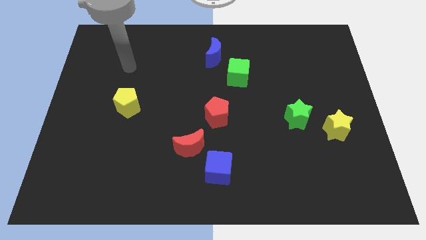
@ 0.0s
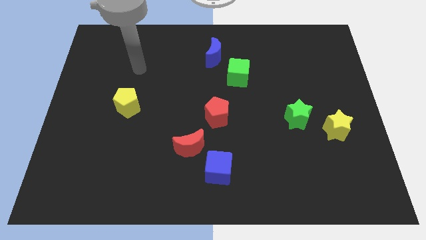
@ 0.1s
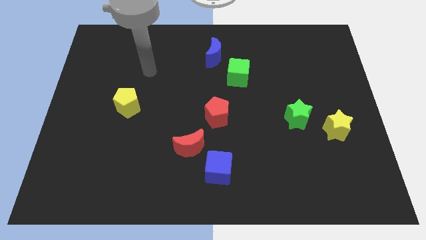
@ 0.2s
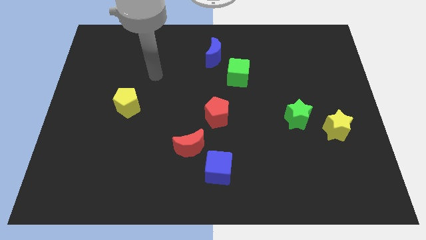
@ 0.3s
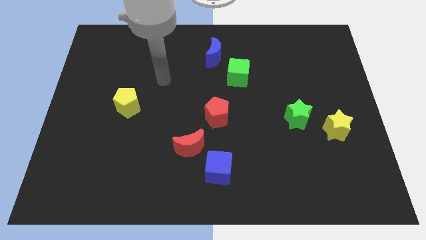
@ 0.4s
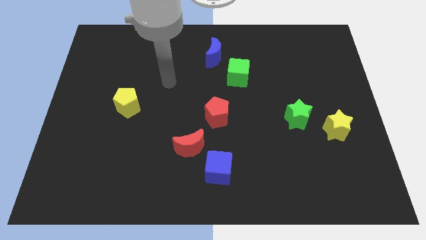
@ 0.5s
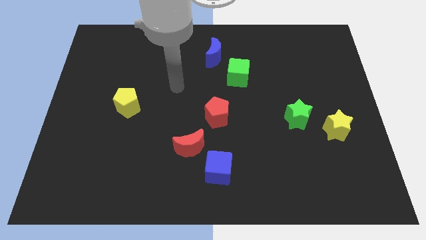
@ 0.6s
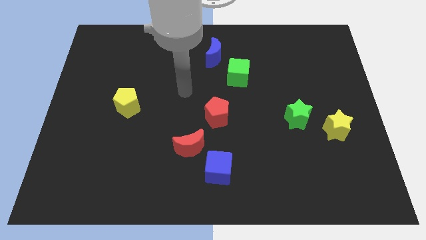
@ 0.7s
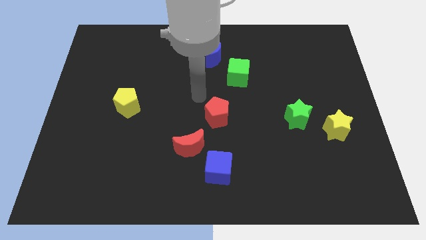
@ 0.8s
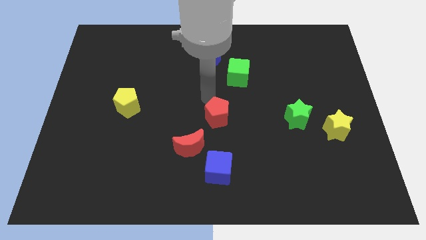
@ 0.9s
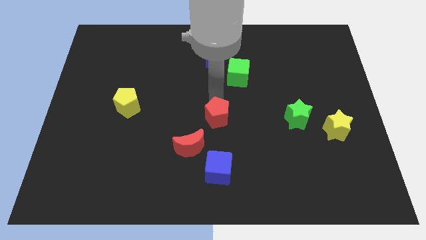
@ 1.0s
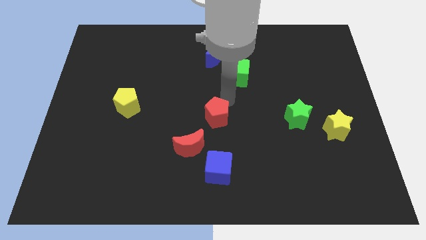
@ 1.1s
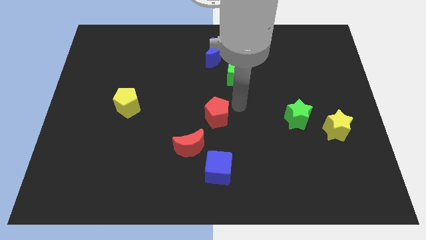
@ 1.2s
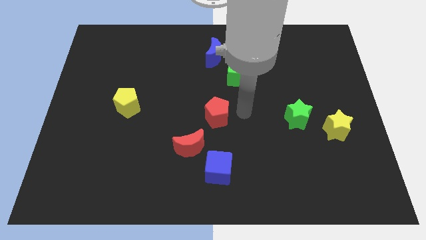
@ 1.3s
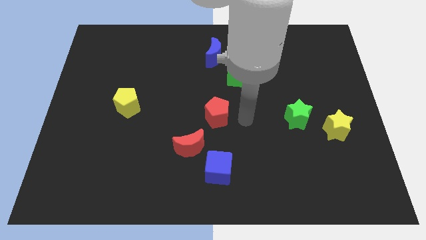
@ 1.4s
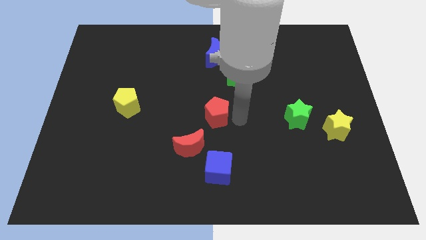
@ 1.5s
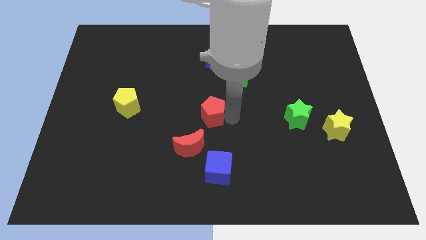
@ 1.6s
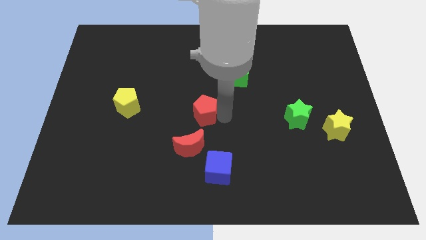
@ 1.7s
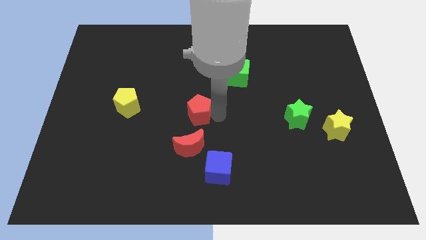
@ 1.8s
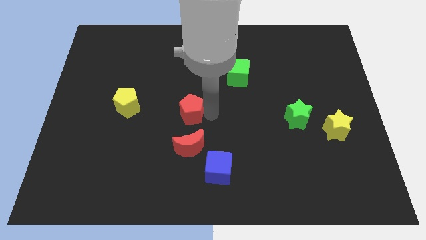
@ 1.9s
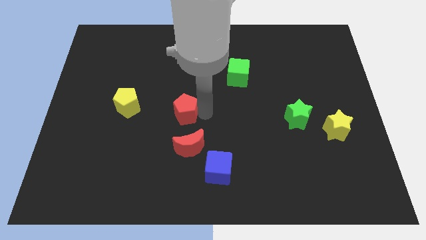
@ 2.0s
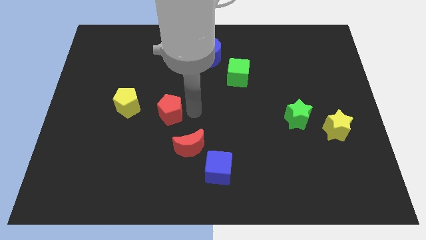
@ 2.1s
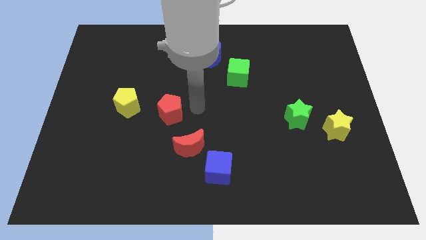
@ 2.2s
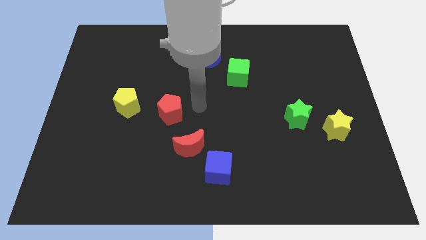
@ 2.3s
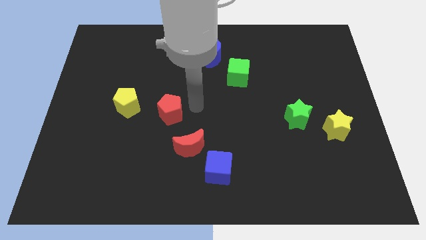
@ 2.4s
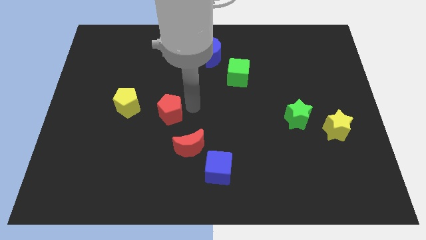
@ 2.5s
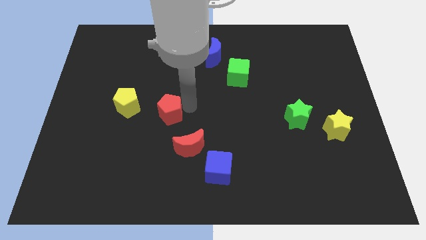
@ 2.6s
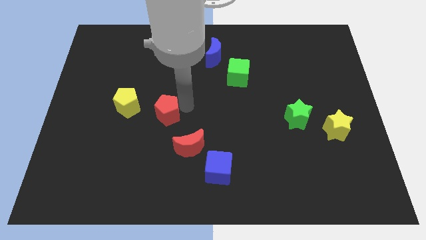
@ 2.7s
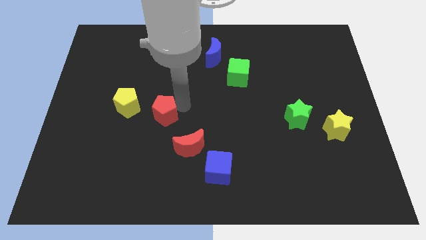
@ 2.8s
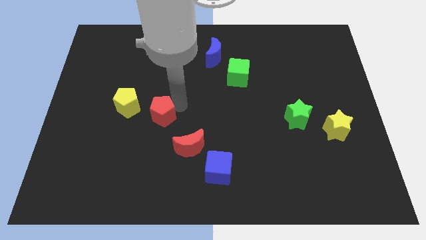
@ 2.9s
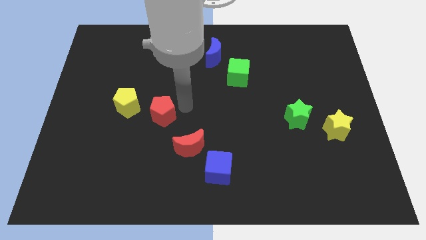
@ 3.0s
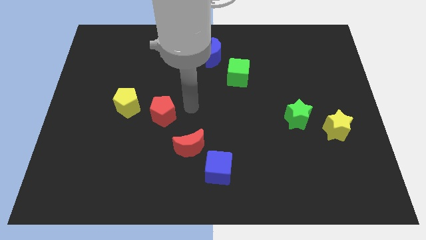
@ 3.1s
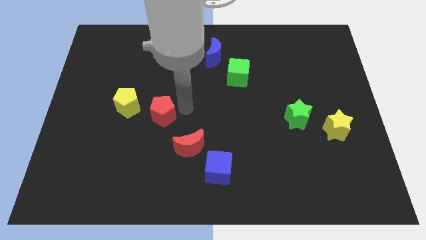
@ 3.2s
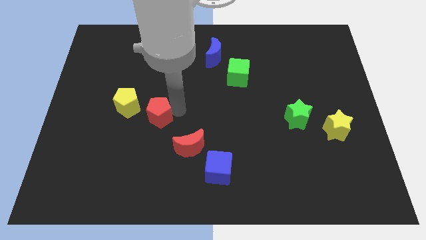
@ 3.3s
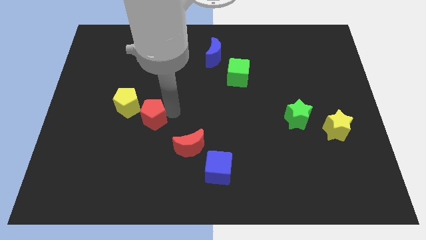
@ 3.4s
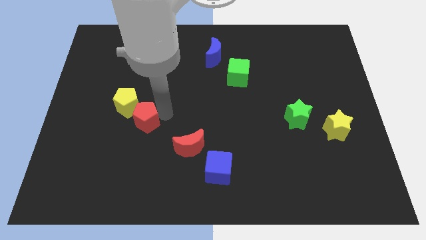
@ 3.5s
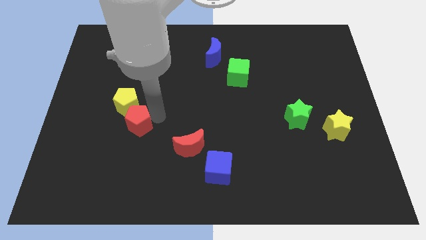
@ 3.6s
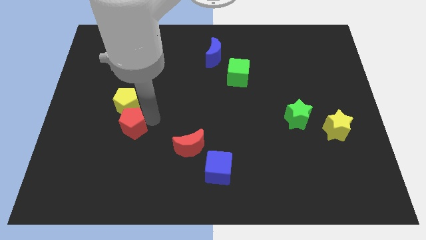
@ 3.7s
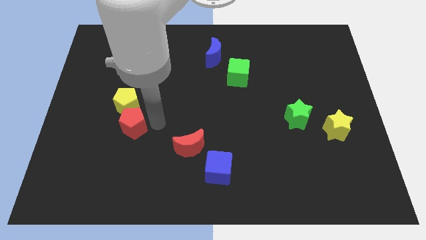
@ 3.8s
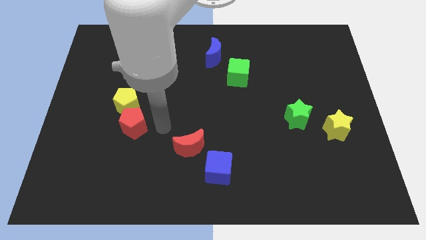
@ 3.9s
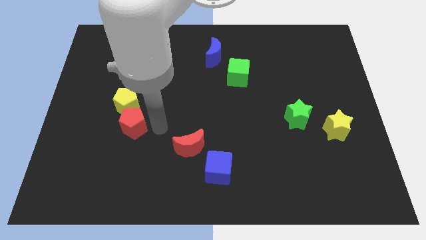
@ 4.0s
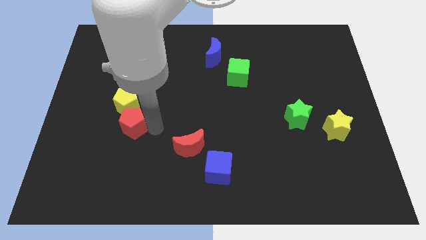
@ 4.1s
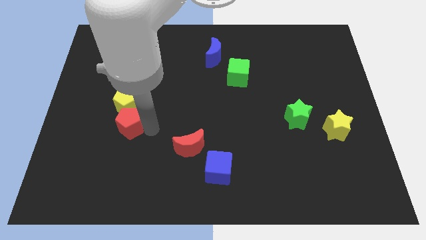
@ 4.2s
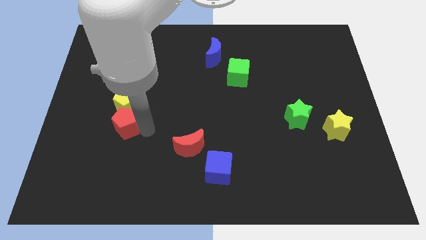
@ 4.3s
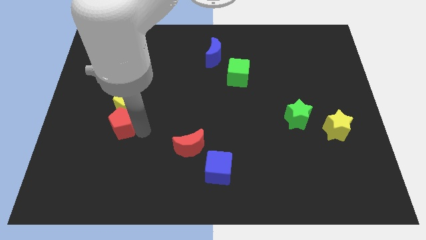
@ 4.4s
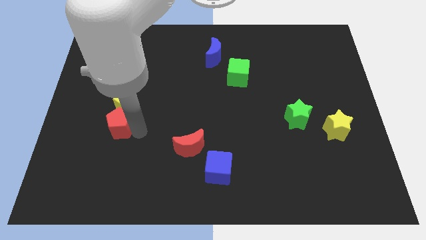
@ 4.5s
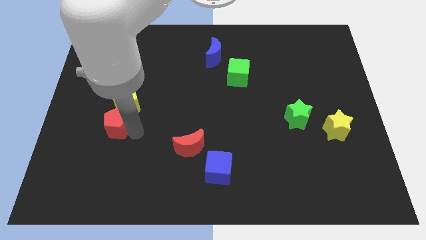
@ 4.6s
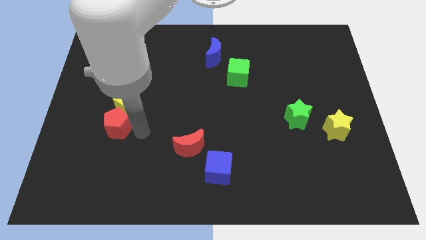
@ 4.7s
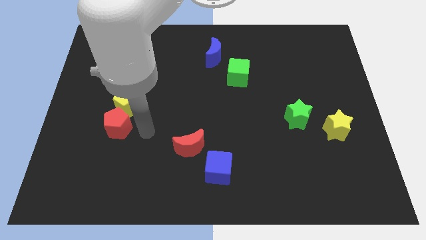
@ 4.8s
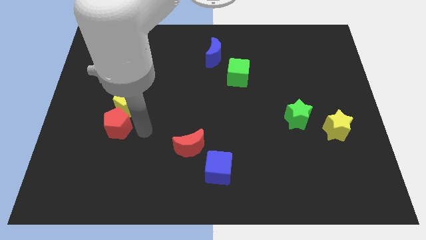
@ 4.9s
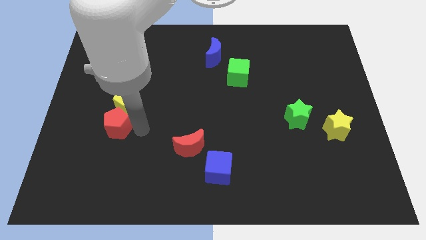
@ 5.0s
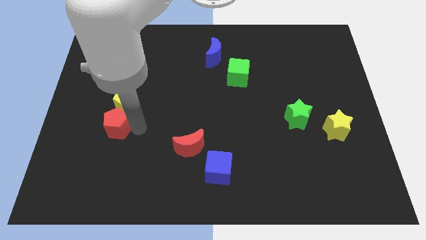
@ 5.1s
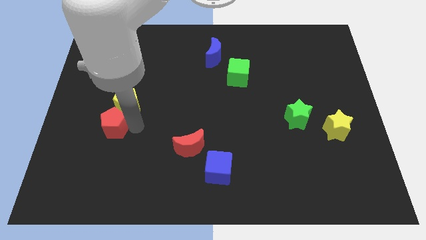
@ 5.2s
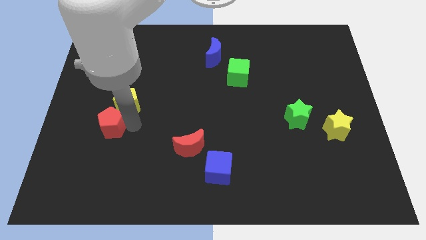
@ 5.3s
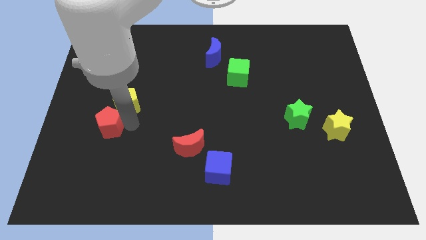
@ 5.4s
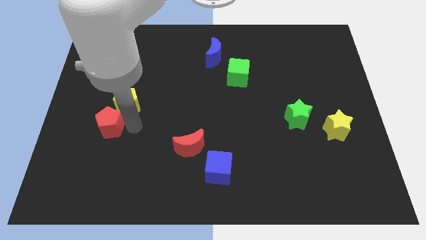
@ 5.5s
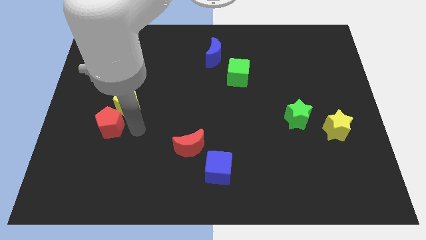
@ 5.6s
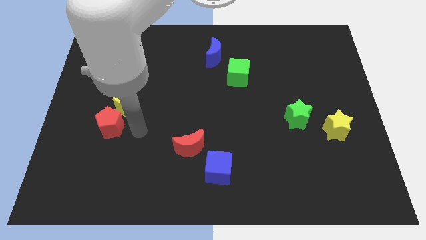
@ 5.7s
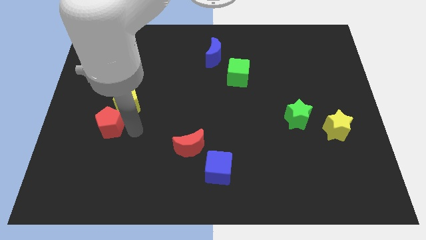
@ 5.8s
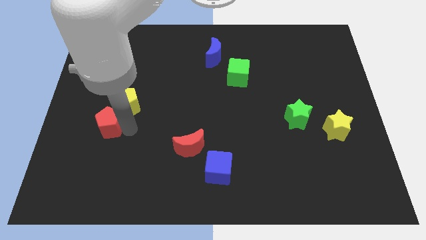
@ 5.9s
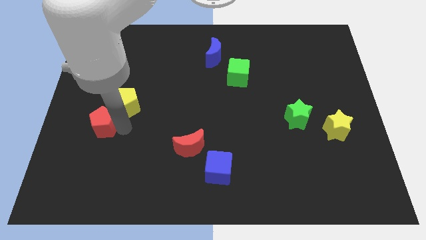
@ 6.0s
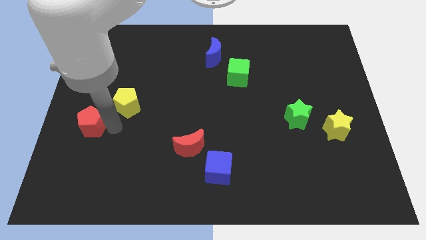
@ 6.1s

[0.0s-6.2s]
move the red pentagon to the center left
